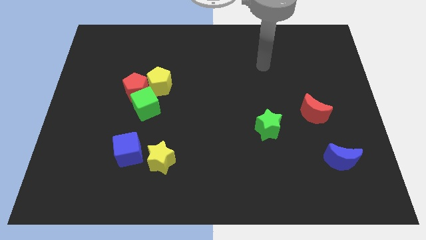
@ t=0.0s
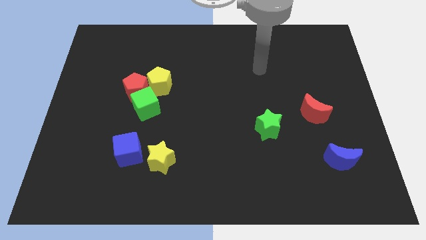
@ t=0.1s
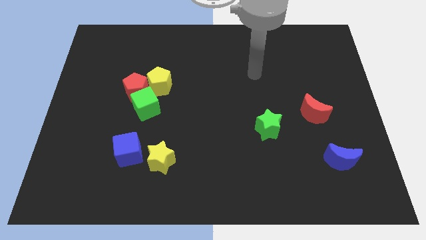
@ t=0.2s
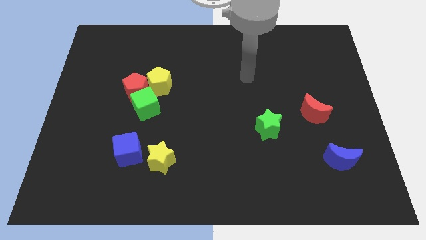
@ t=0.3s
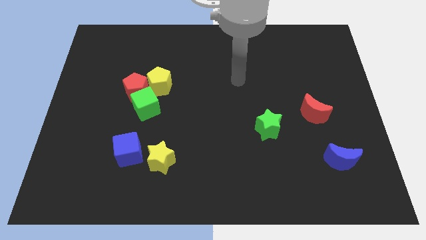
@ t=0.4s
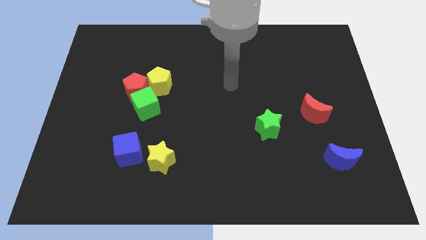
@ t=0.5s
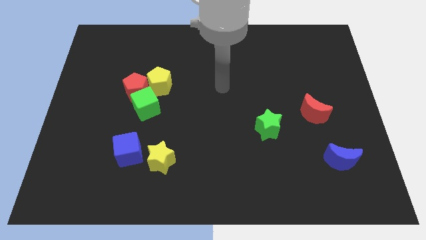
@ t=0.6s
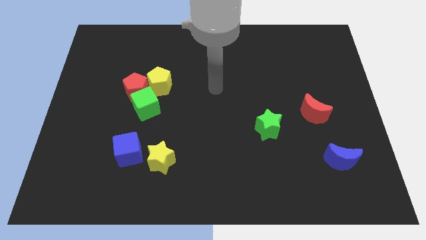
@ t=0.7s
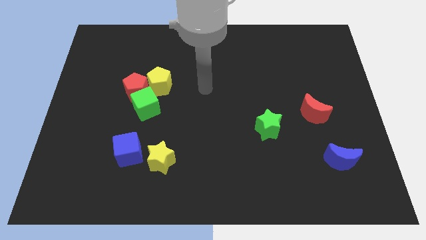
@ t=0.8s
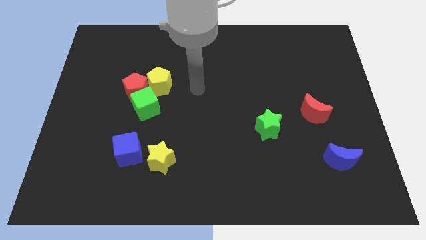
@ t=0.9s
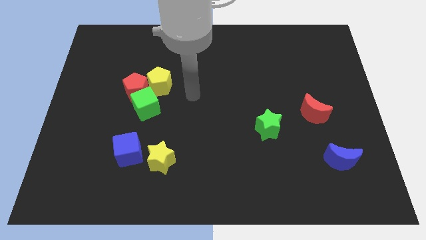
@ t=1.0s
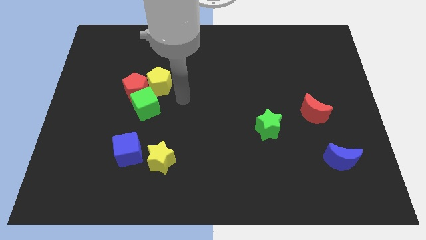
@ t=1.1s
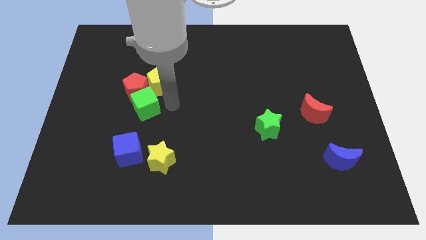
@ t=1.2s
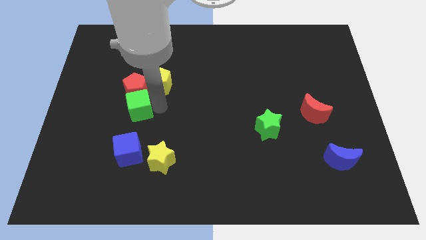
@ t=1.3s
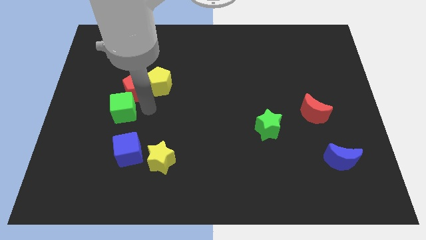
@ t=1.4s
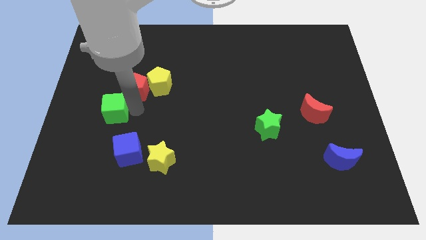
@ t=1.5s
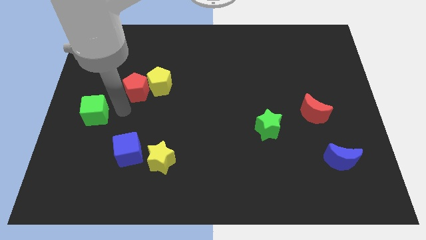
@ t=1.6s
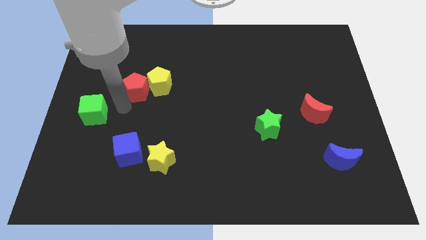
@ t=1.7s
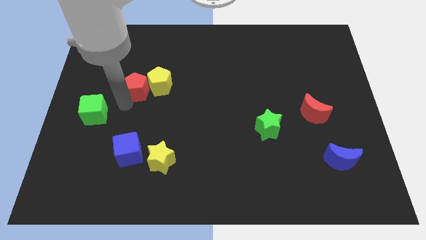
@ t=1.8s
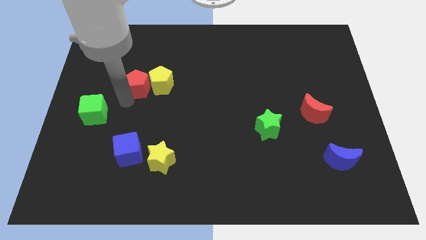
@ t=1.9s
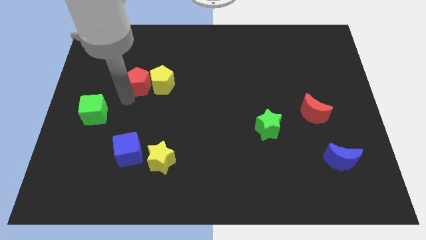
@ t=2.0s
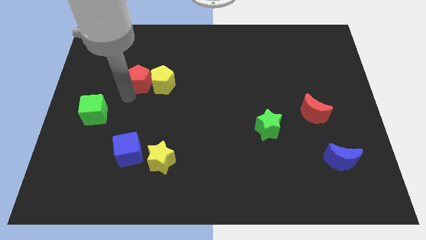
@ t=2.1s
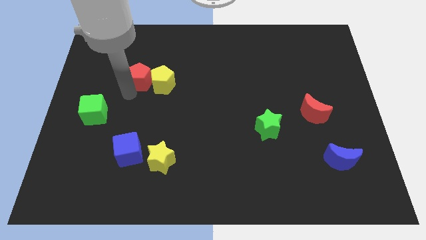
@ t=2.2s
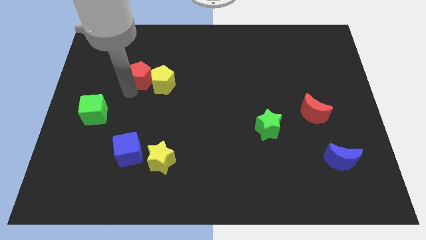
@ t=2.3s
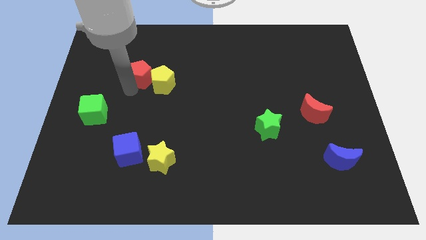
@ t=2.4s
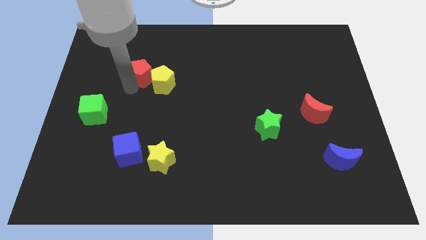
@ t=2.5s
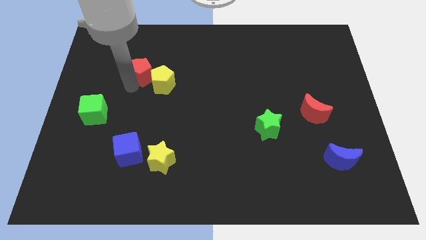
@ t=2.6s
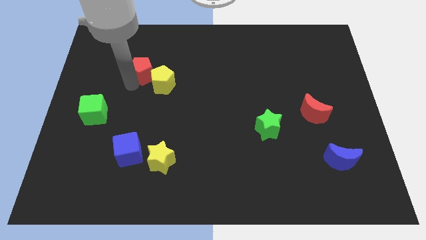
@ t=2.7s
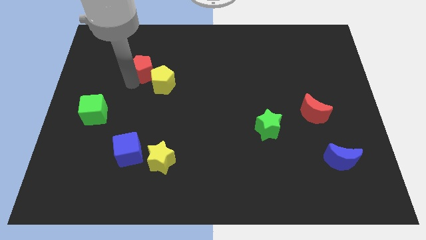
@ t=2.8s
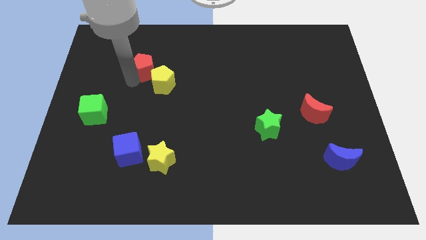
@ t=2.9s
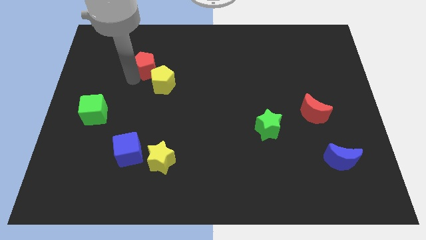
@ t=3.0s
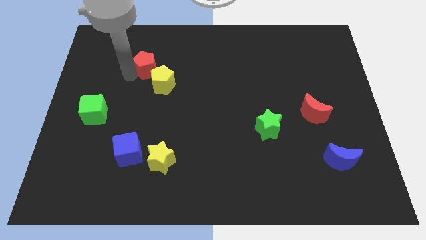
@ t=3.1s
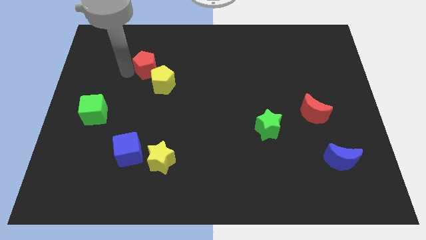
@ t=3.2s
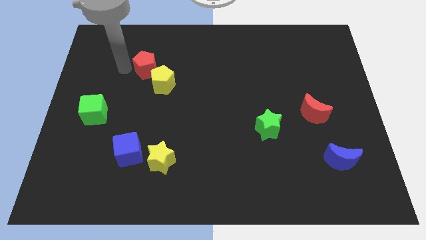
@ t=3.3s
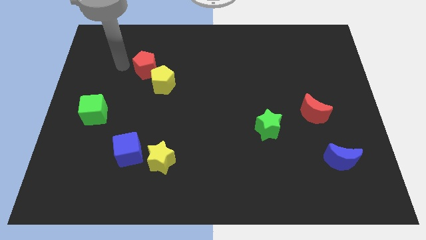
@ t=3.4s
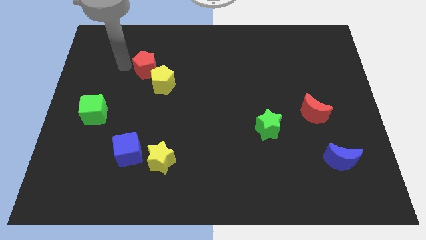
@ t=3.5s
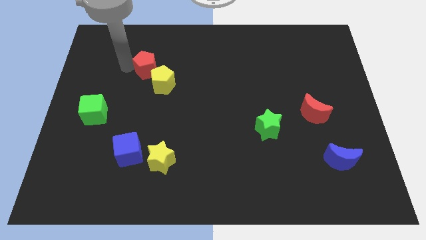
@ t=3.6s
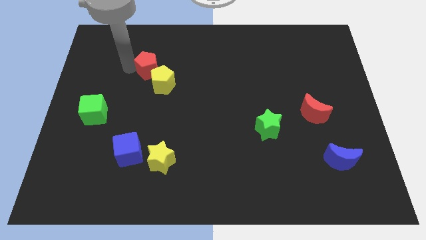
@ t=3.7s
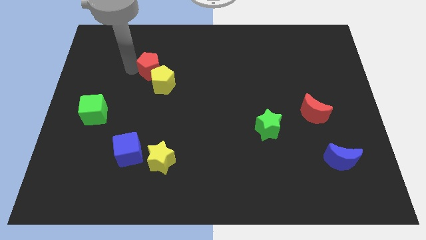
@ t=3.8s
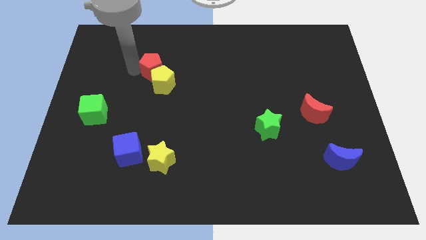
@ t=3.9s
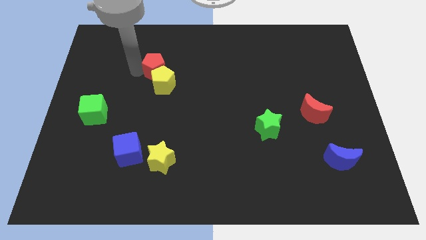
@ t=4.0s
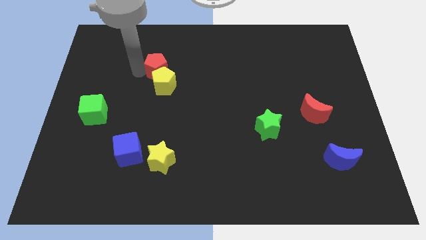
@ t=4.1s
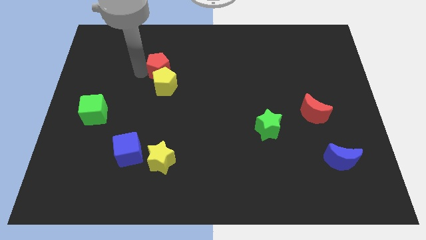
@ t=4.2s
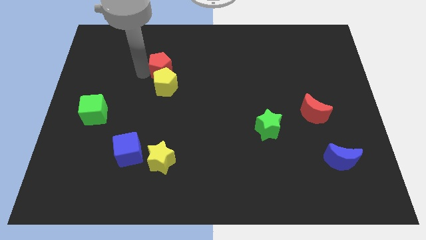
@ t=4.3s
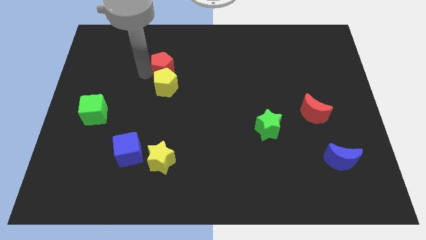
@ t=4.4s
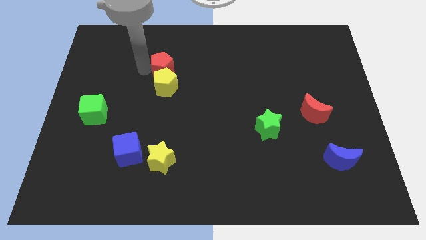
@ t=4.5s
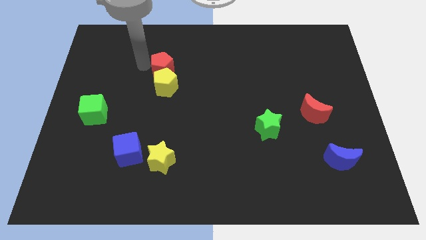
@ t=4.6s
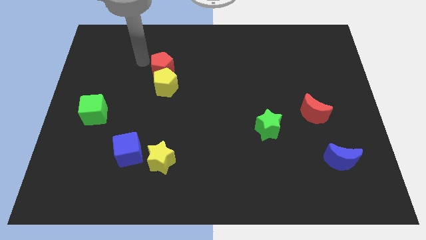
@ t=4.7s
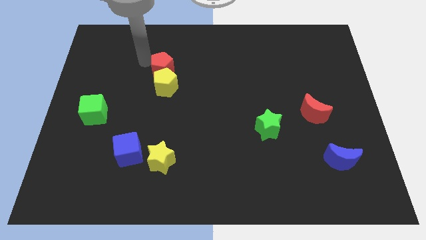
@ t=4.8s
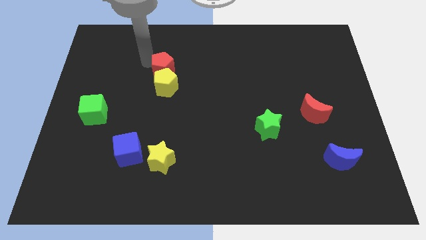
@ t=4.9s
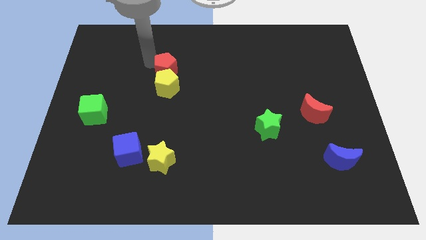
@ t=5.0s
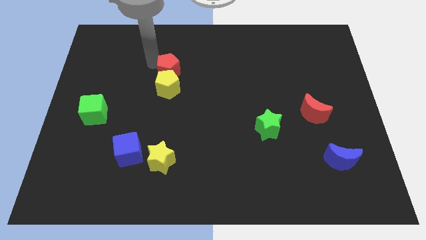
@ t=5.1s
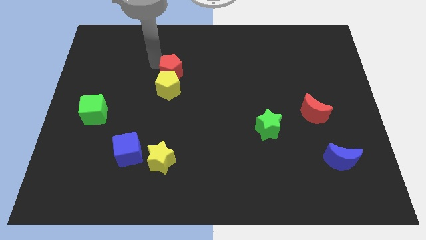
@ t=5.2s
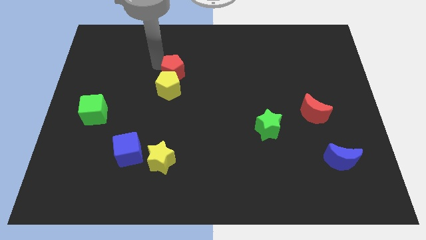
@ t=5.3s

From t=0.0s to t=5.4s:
slightly move the red pentagon to the right

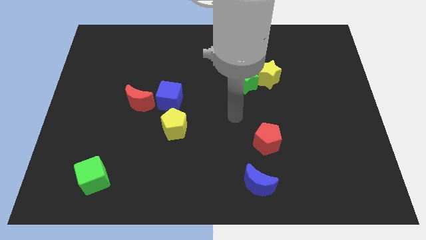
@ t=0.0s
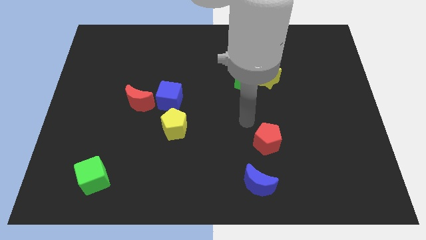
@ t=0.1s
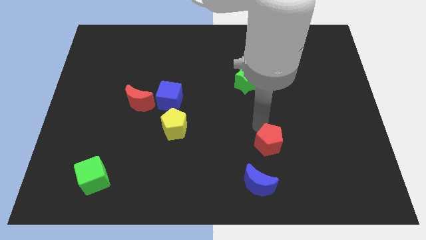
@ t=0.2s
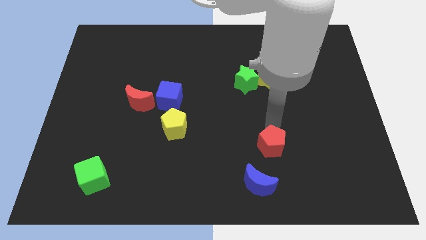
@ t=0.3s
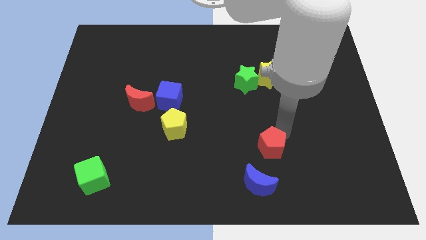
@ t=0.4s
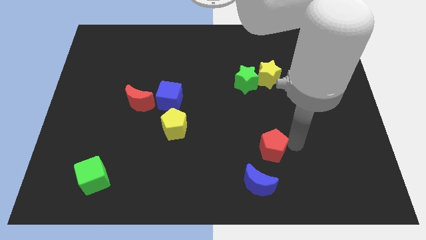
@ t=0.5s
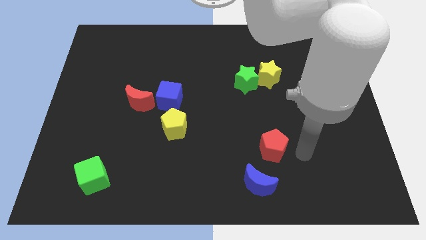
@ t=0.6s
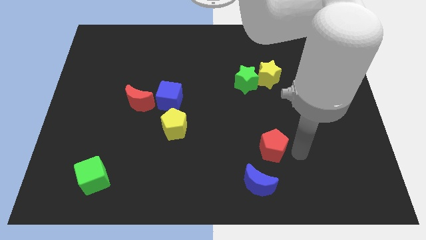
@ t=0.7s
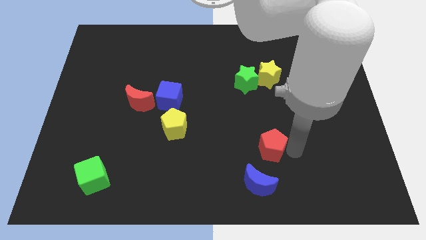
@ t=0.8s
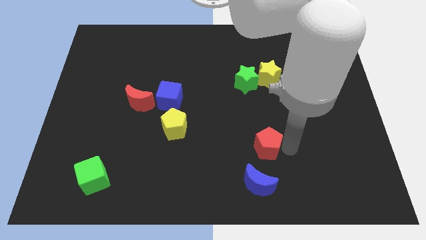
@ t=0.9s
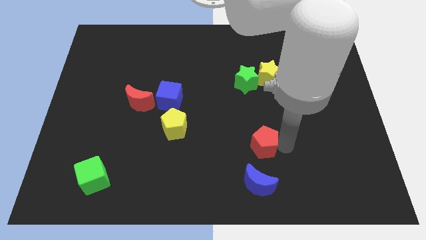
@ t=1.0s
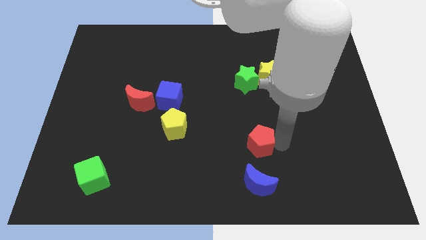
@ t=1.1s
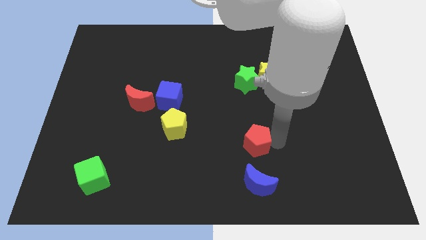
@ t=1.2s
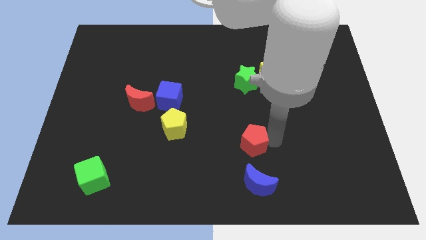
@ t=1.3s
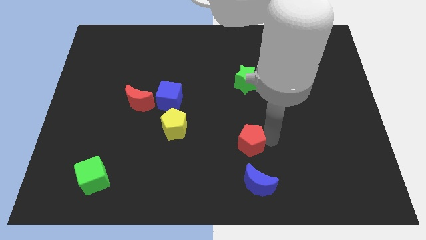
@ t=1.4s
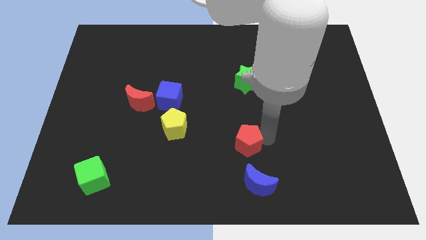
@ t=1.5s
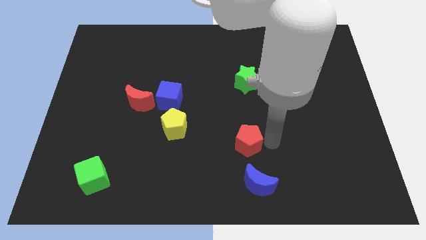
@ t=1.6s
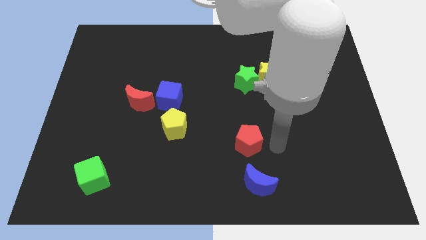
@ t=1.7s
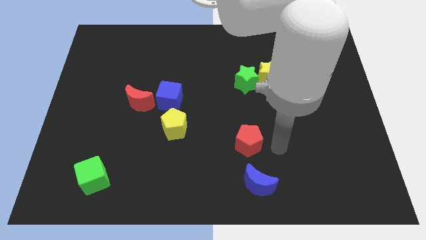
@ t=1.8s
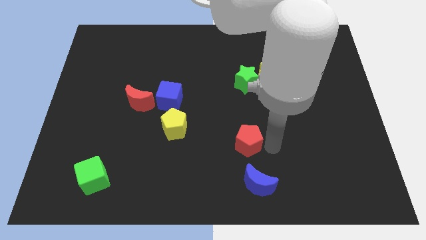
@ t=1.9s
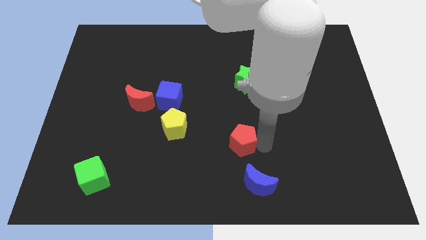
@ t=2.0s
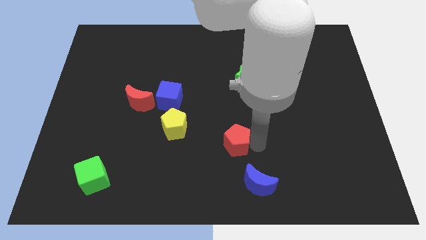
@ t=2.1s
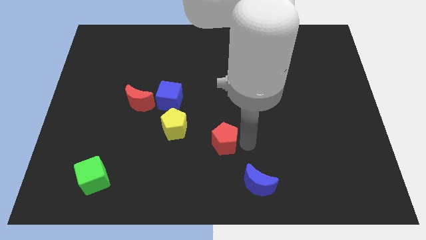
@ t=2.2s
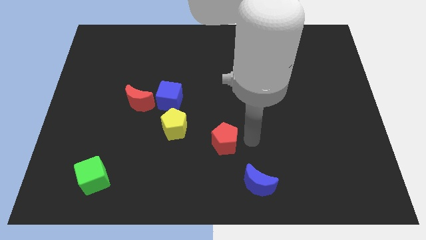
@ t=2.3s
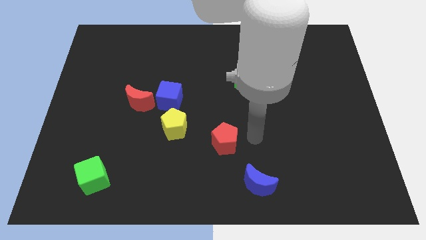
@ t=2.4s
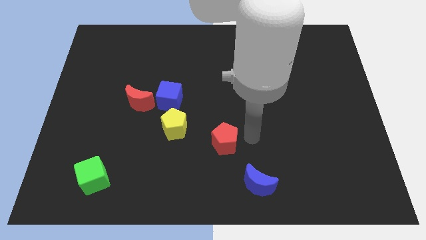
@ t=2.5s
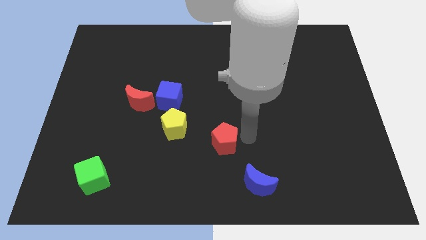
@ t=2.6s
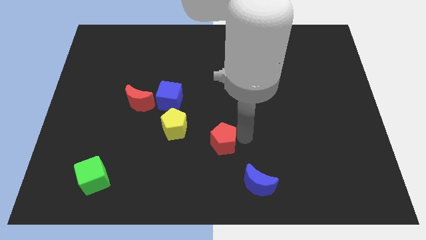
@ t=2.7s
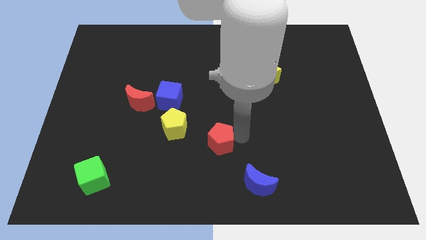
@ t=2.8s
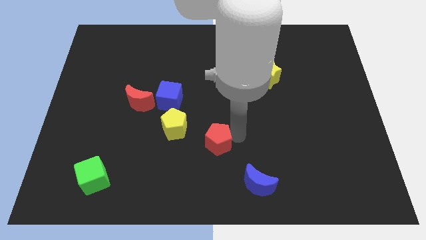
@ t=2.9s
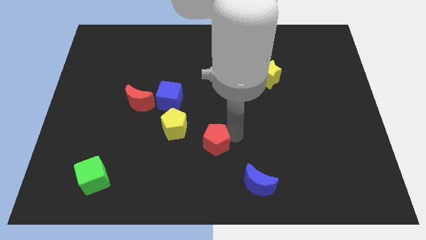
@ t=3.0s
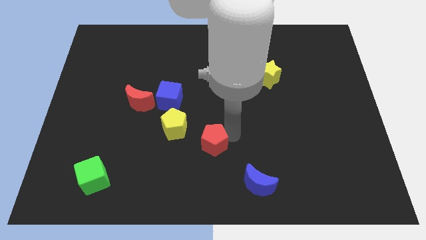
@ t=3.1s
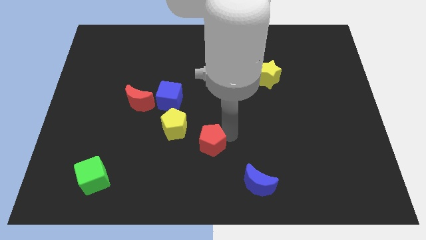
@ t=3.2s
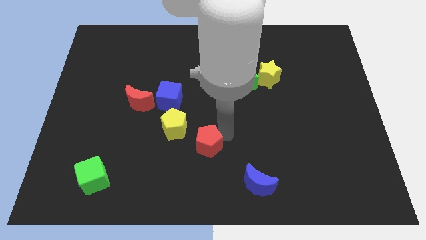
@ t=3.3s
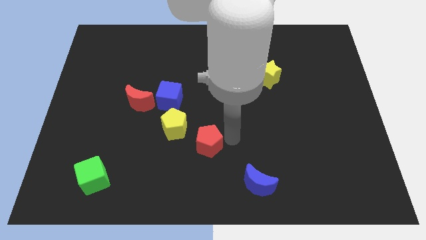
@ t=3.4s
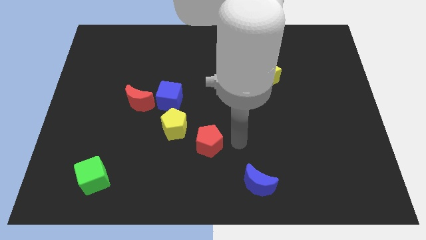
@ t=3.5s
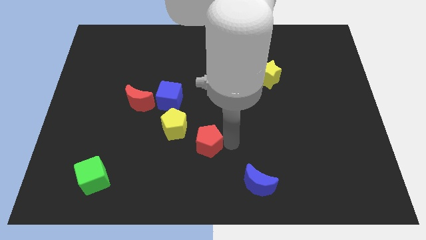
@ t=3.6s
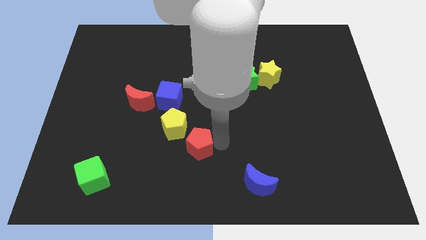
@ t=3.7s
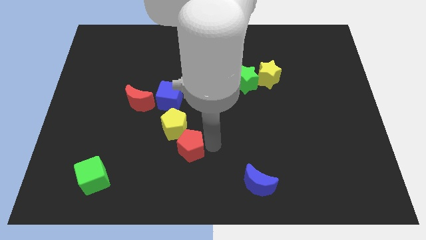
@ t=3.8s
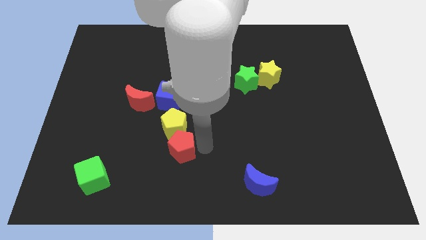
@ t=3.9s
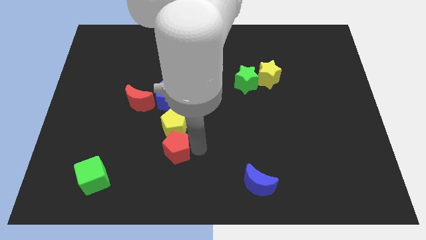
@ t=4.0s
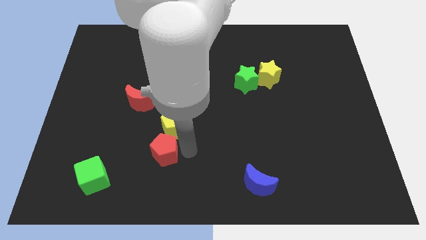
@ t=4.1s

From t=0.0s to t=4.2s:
slide the red pentagon left
